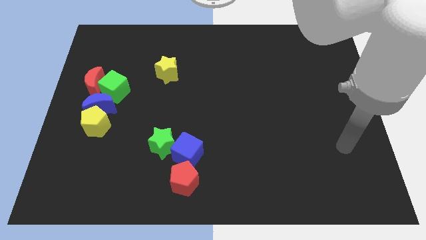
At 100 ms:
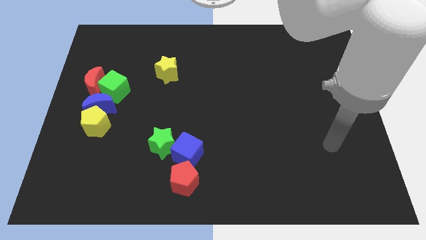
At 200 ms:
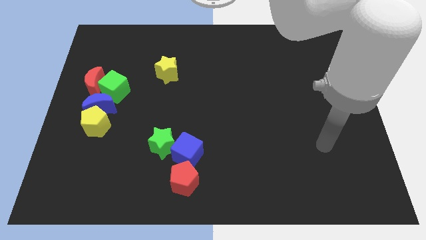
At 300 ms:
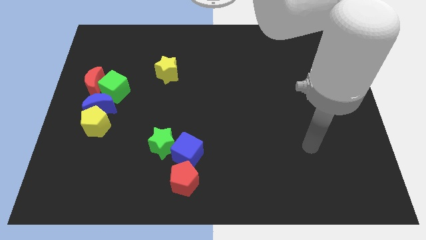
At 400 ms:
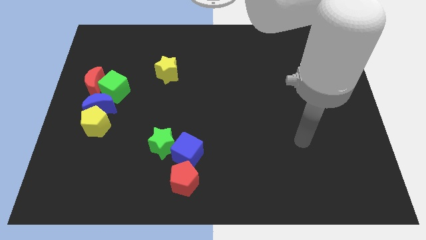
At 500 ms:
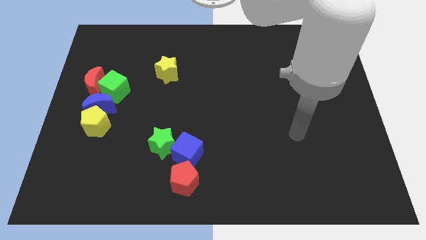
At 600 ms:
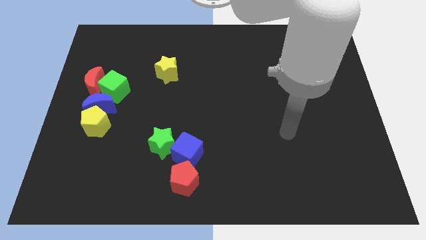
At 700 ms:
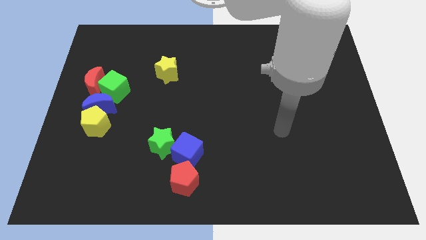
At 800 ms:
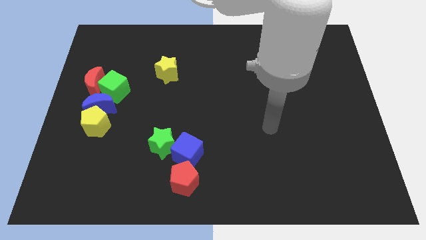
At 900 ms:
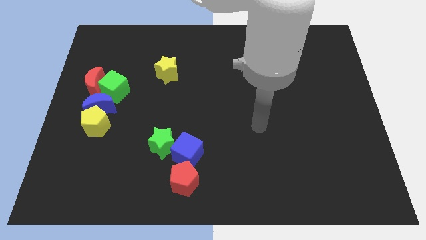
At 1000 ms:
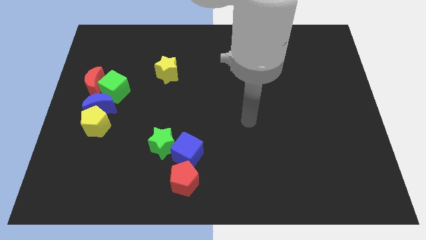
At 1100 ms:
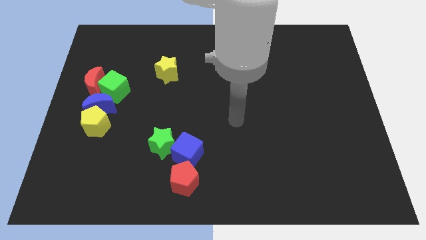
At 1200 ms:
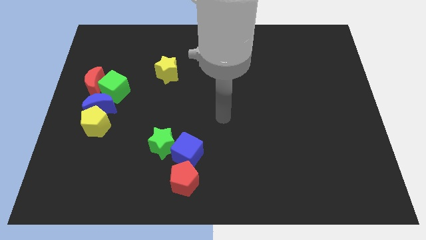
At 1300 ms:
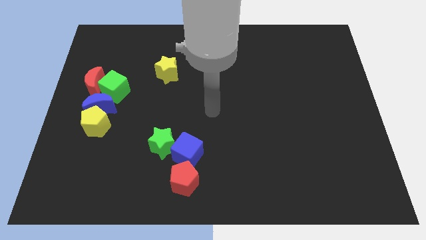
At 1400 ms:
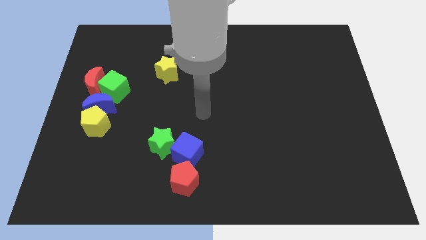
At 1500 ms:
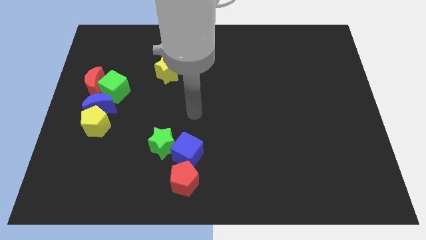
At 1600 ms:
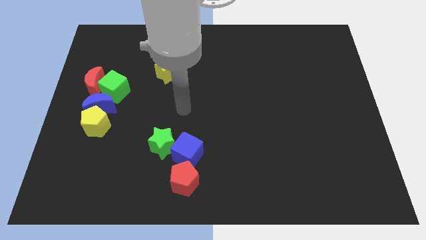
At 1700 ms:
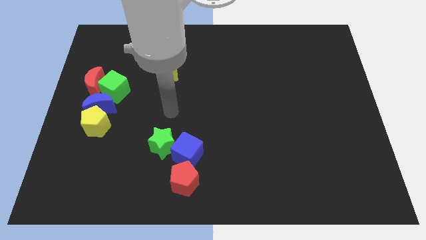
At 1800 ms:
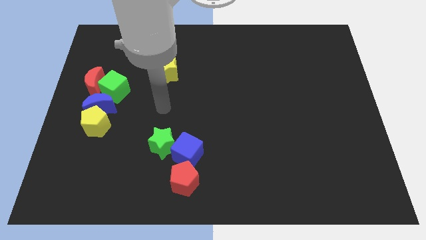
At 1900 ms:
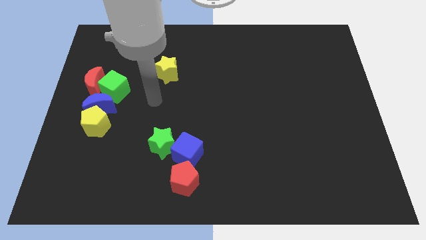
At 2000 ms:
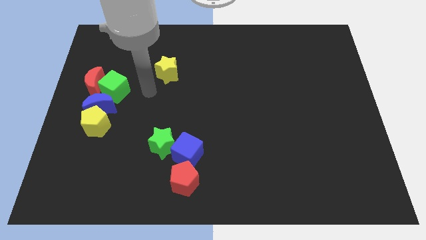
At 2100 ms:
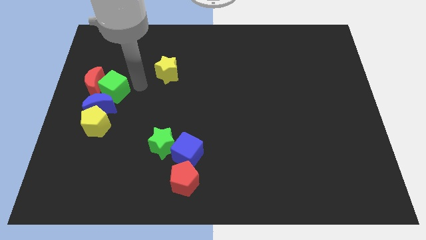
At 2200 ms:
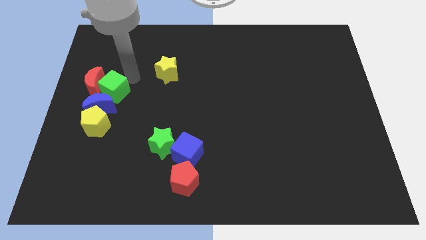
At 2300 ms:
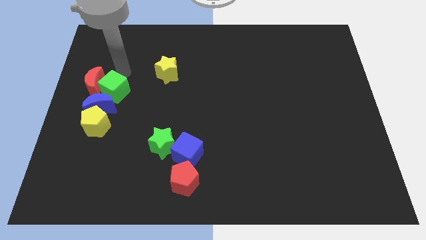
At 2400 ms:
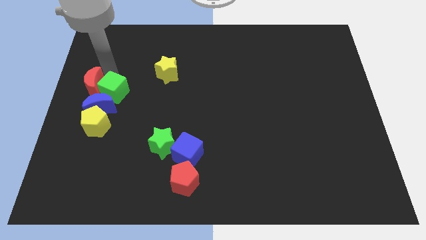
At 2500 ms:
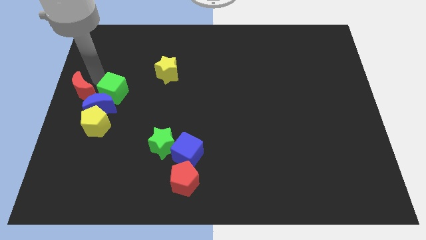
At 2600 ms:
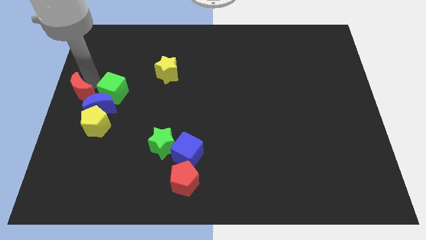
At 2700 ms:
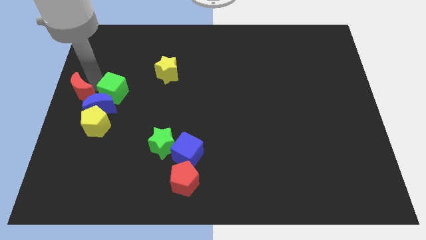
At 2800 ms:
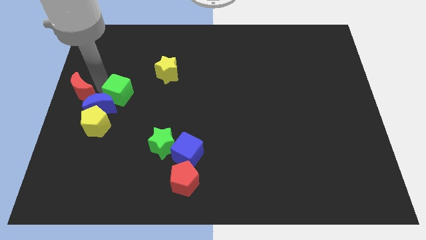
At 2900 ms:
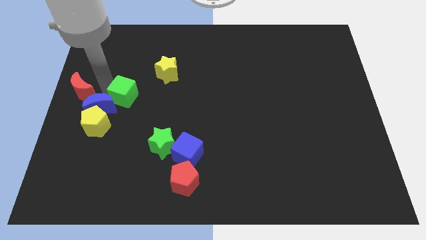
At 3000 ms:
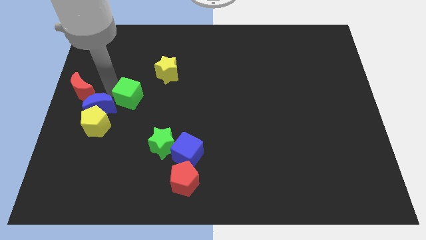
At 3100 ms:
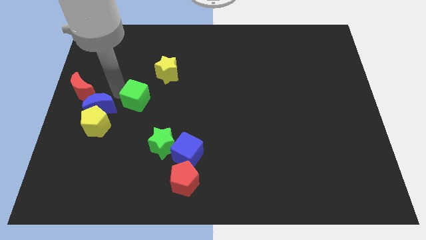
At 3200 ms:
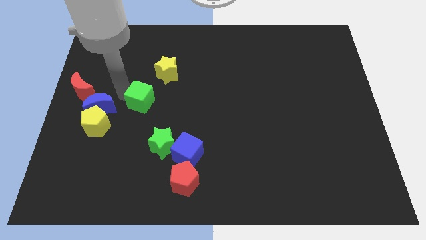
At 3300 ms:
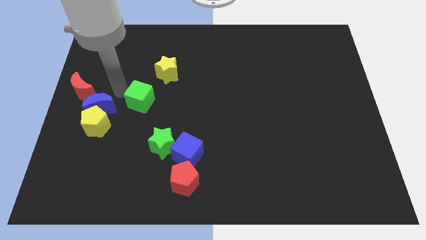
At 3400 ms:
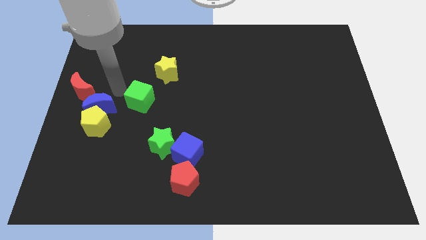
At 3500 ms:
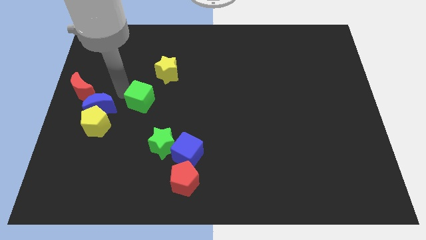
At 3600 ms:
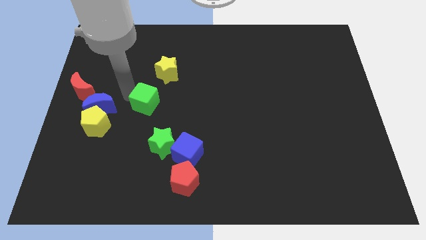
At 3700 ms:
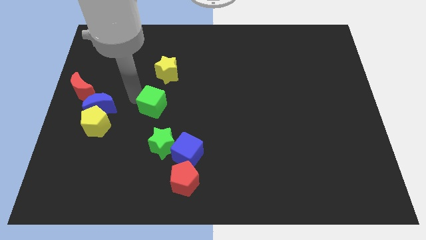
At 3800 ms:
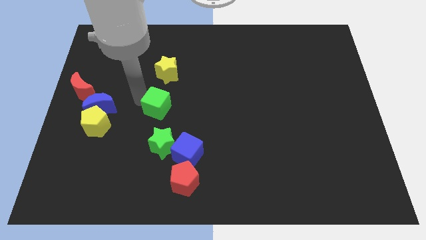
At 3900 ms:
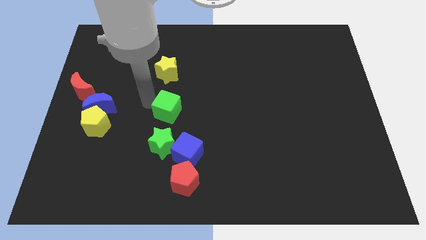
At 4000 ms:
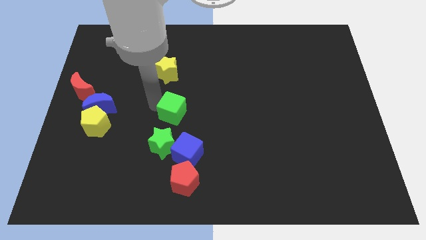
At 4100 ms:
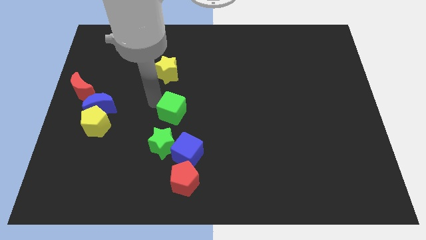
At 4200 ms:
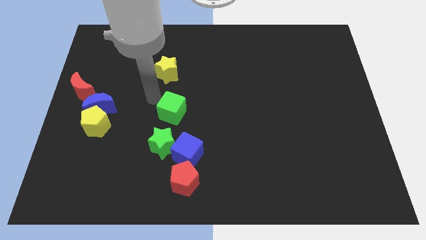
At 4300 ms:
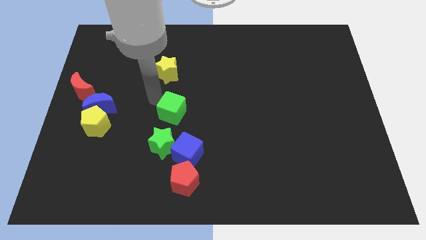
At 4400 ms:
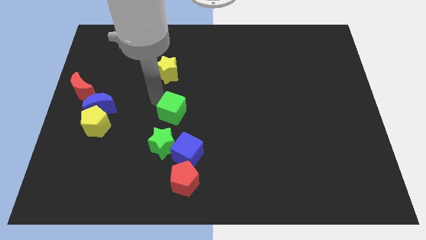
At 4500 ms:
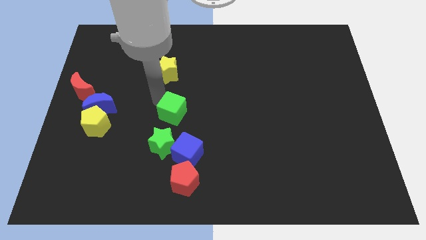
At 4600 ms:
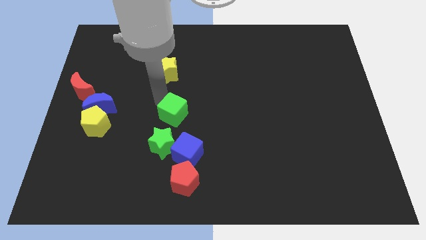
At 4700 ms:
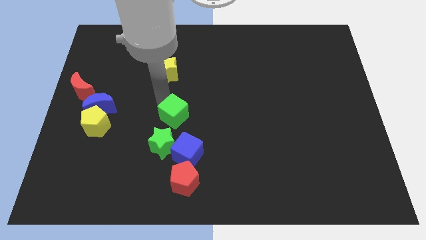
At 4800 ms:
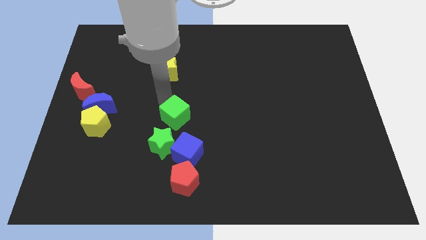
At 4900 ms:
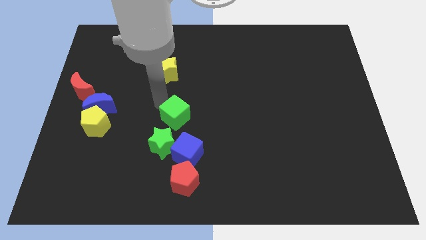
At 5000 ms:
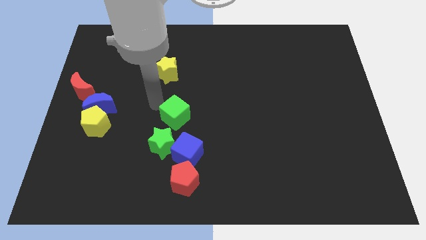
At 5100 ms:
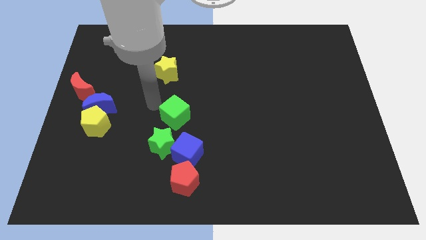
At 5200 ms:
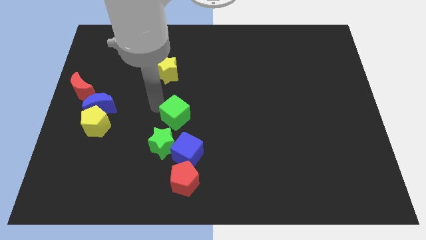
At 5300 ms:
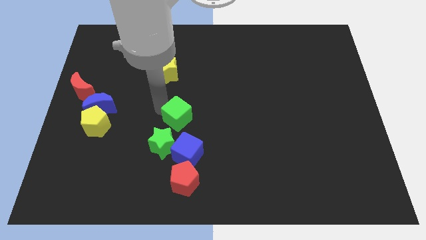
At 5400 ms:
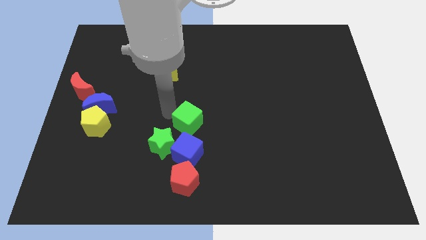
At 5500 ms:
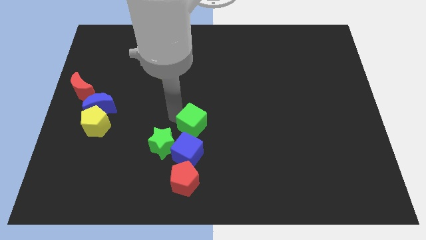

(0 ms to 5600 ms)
put the green cube to the top right side of the blue cube

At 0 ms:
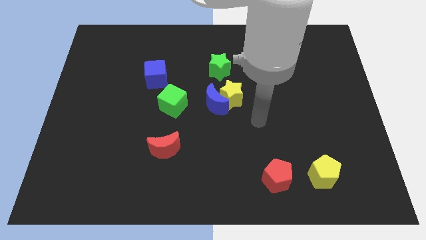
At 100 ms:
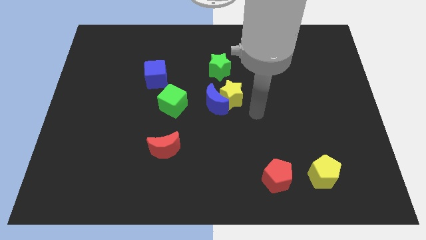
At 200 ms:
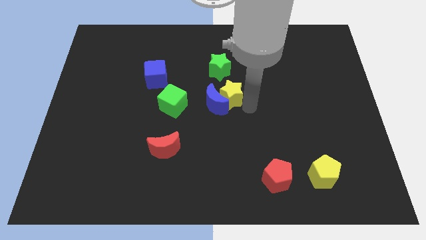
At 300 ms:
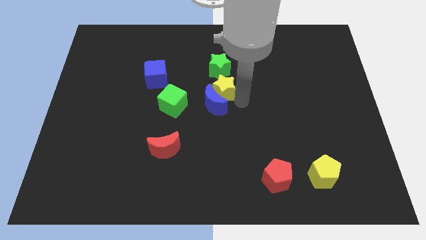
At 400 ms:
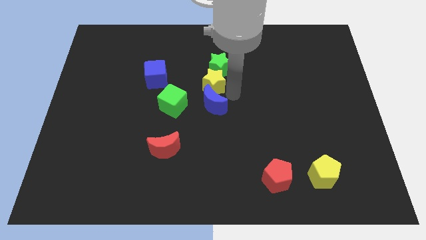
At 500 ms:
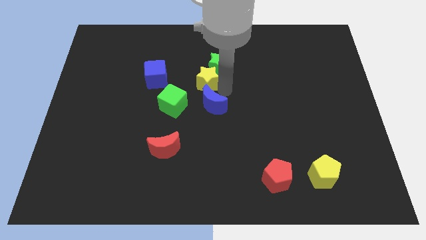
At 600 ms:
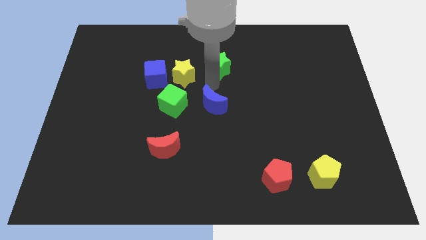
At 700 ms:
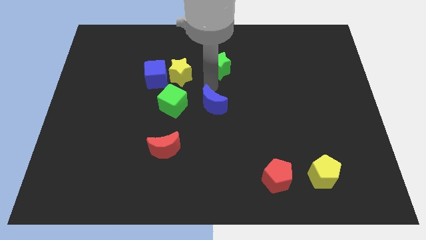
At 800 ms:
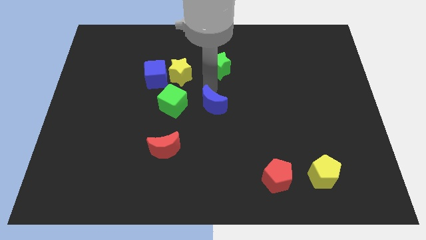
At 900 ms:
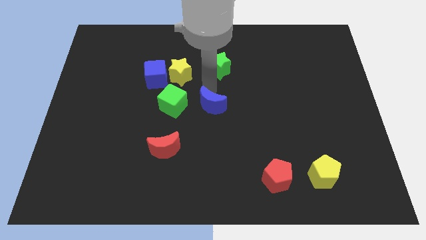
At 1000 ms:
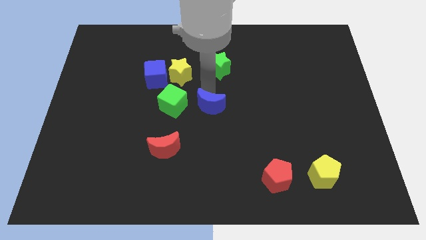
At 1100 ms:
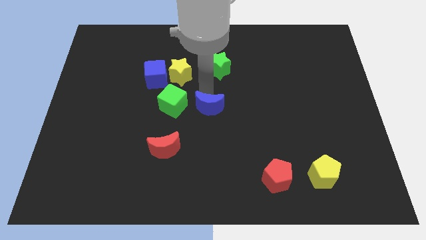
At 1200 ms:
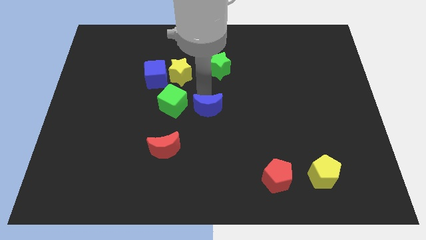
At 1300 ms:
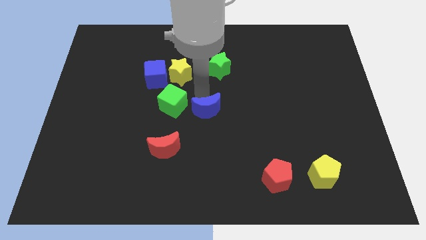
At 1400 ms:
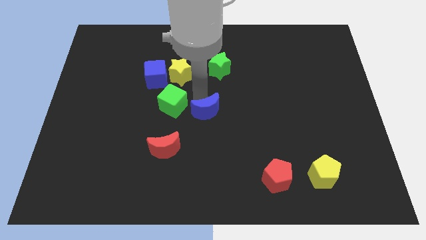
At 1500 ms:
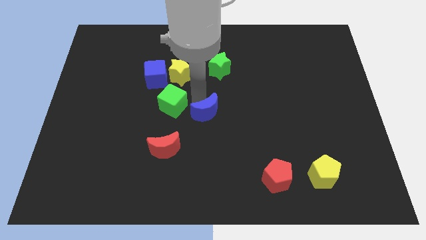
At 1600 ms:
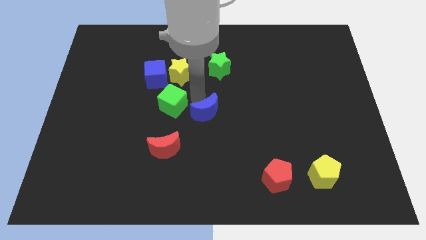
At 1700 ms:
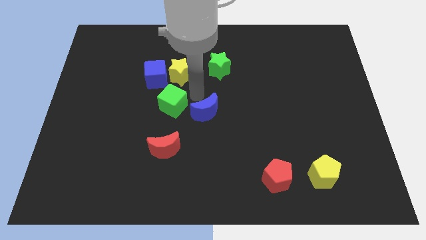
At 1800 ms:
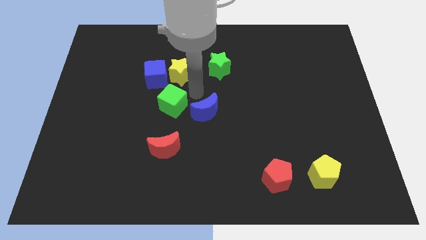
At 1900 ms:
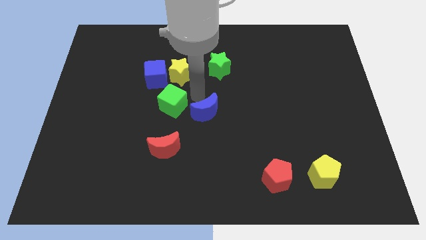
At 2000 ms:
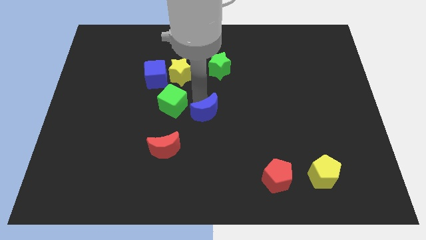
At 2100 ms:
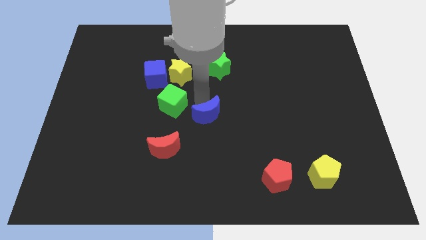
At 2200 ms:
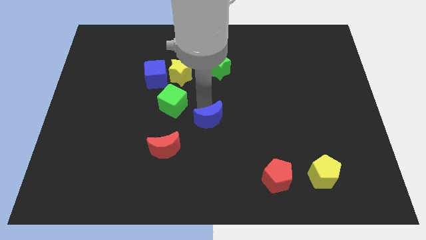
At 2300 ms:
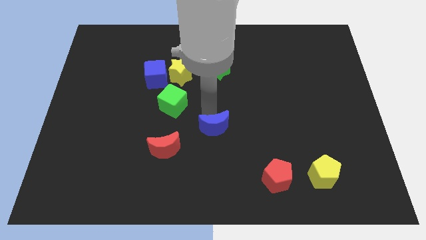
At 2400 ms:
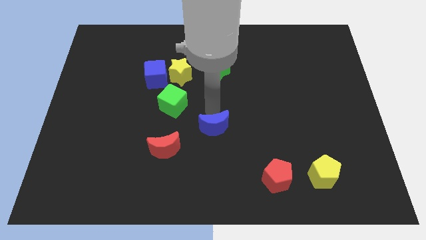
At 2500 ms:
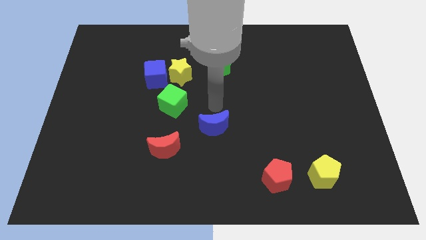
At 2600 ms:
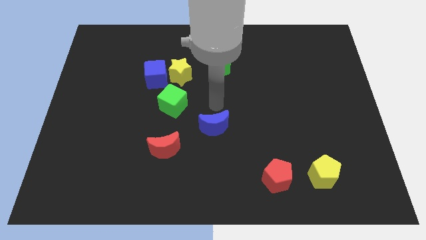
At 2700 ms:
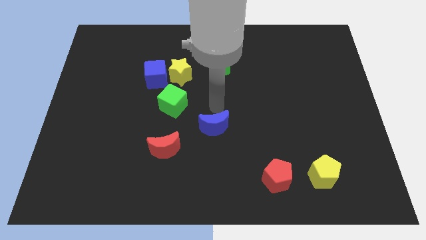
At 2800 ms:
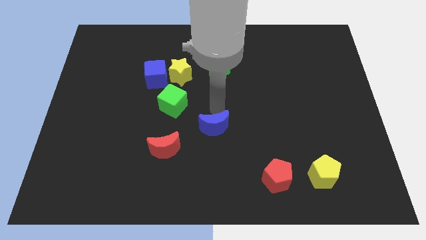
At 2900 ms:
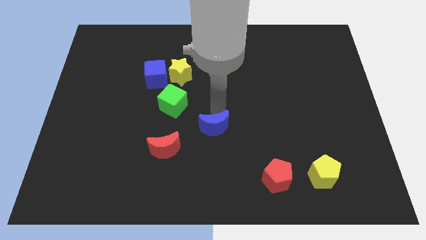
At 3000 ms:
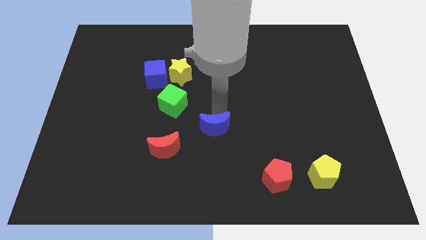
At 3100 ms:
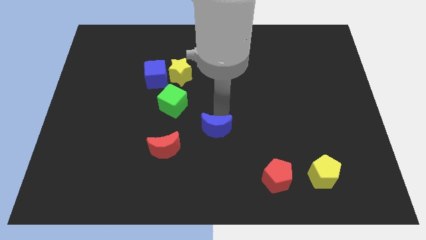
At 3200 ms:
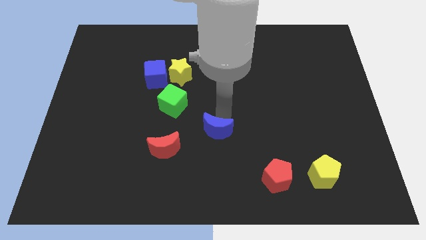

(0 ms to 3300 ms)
push the blue moon to the right of the red moon
